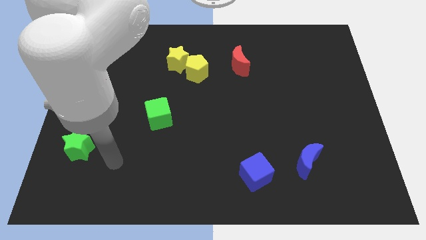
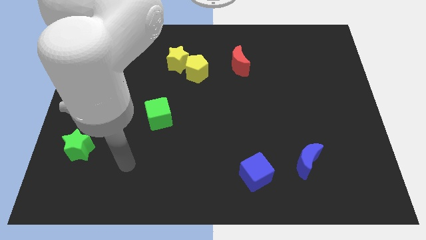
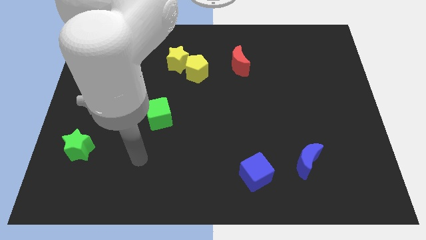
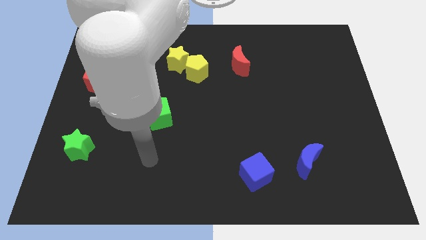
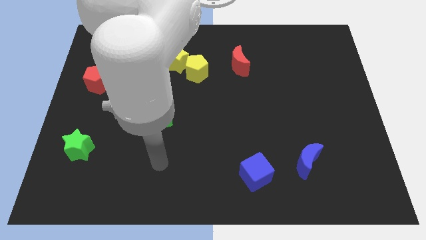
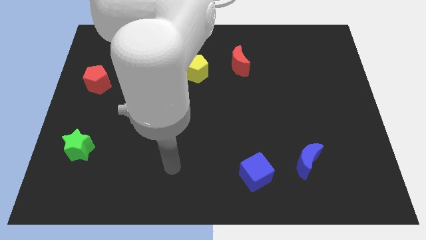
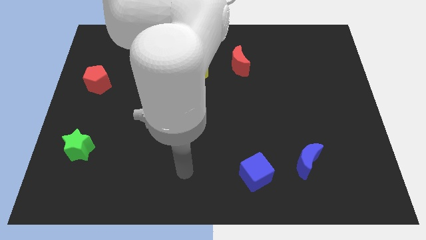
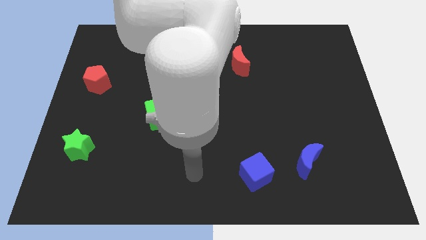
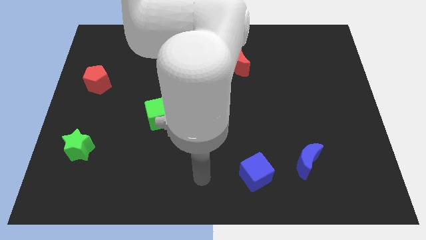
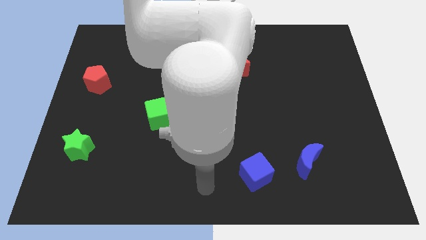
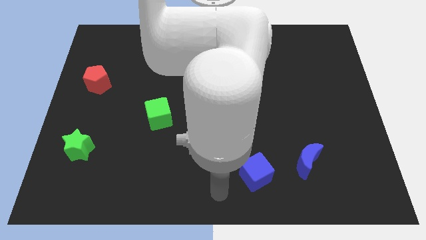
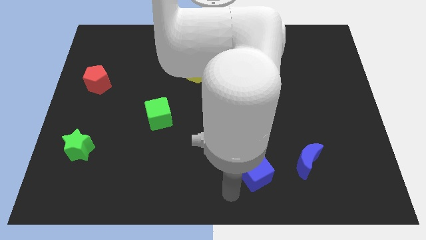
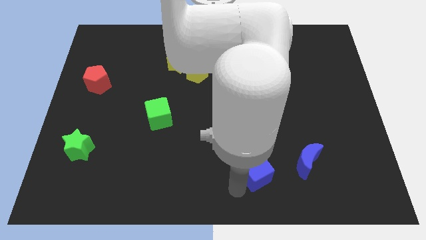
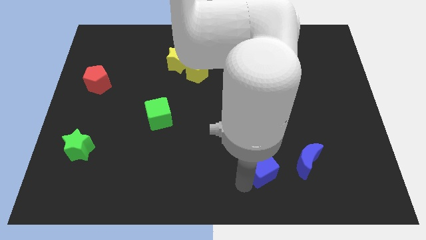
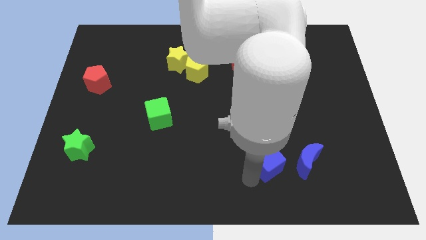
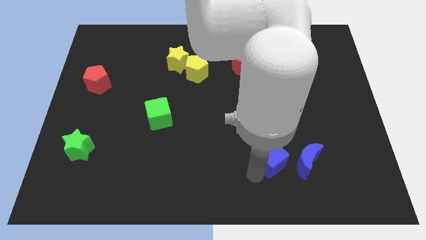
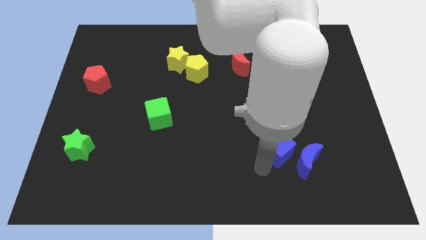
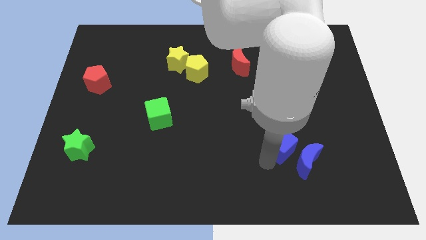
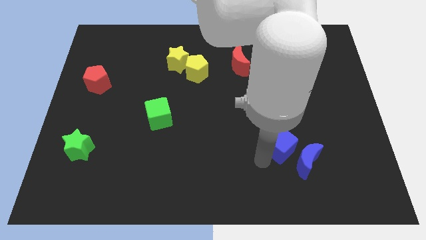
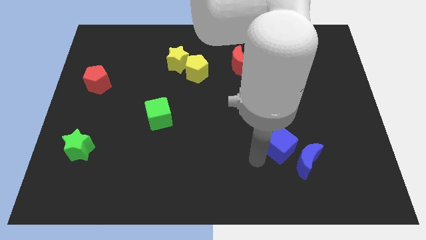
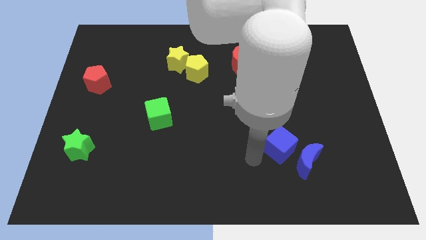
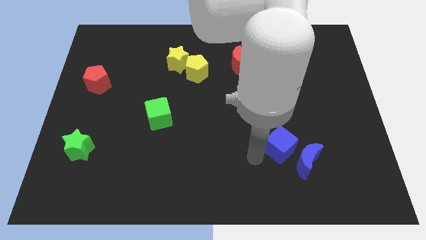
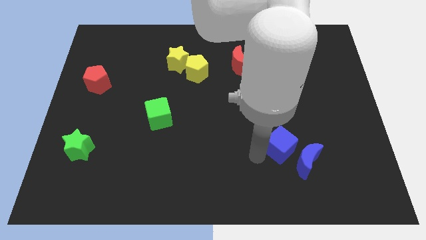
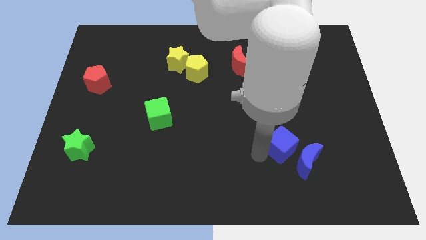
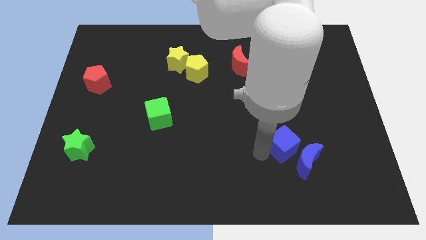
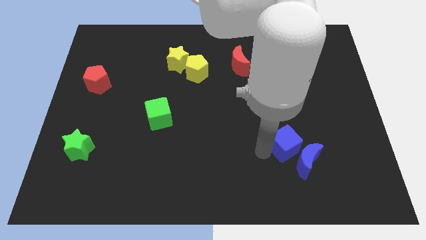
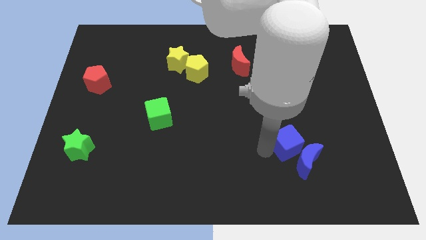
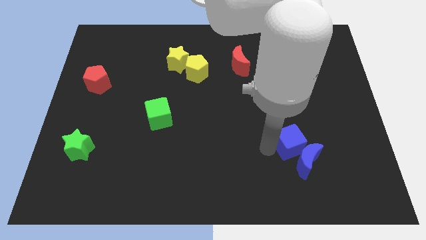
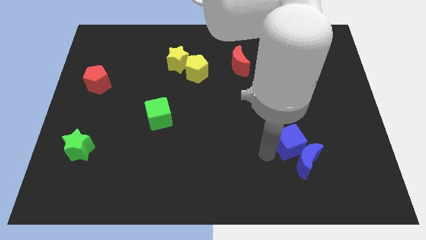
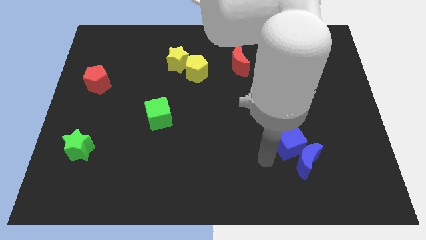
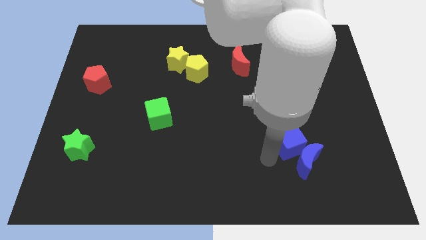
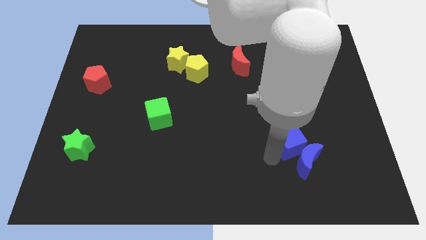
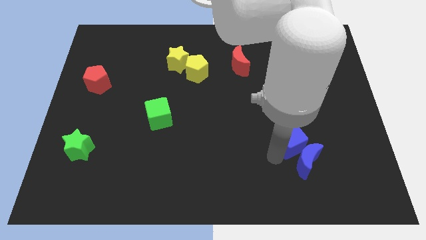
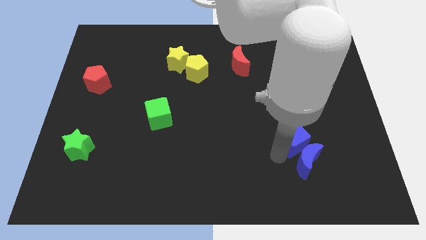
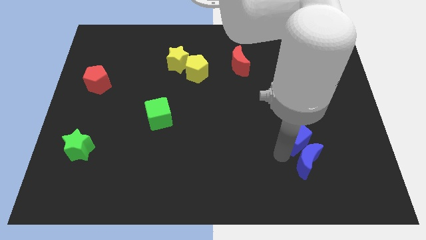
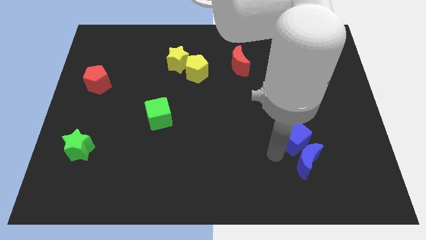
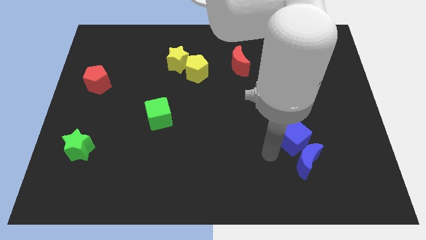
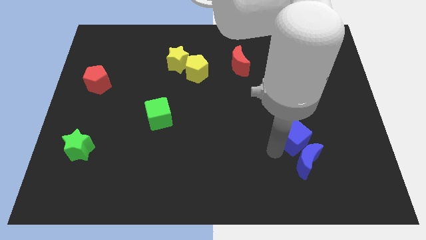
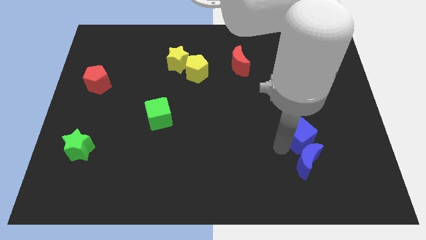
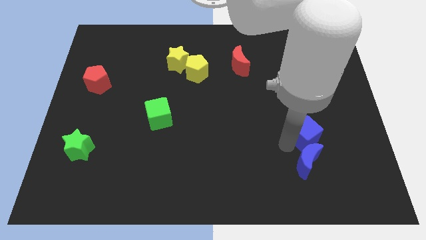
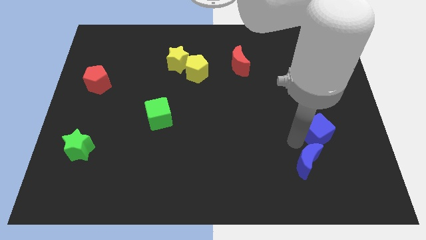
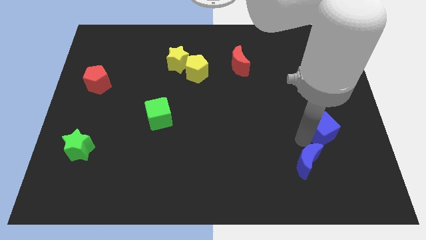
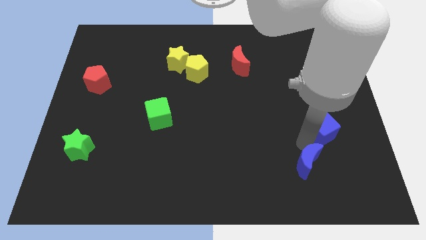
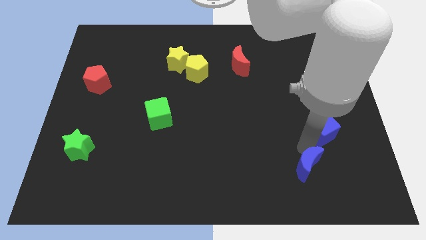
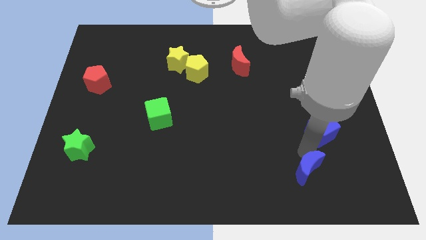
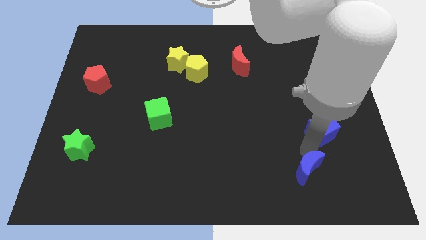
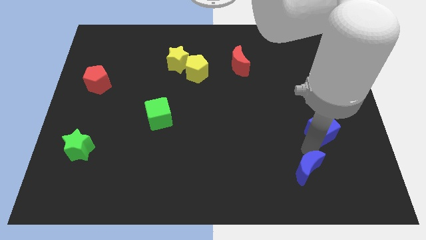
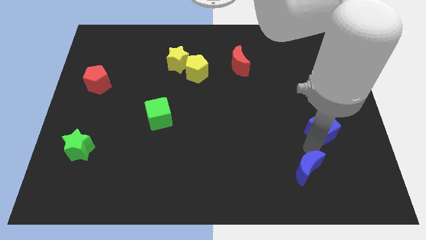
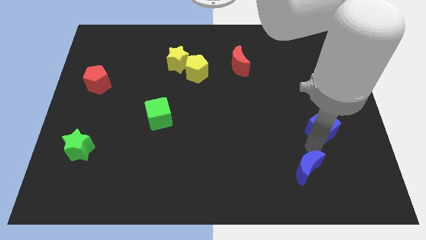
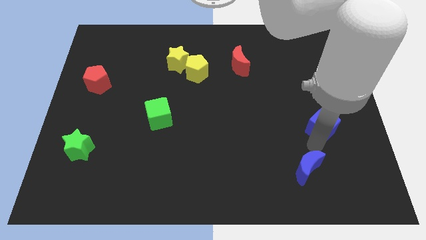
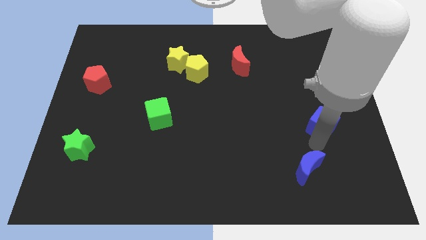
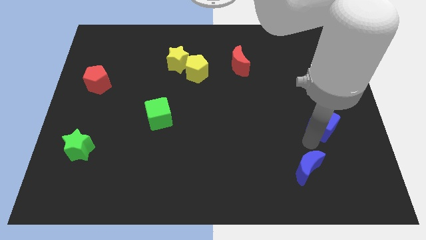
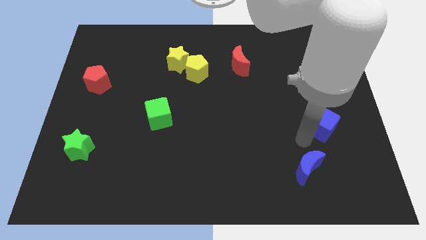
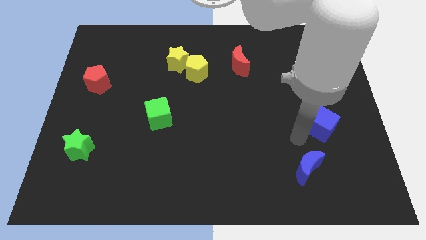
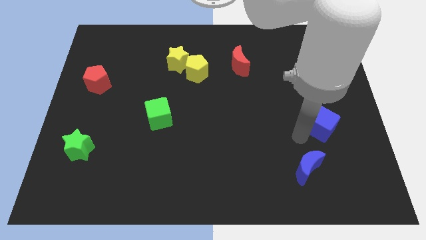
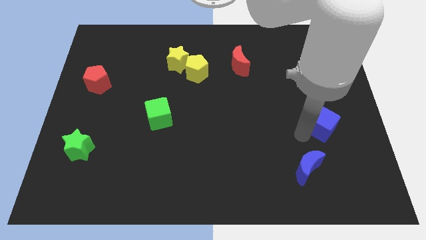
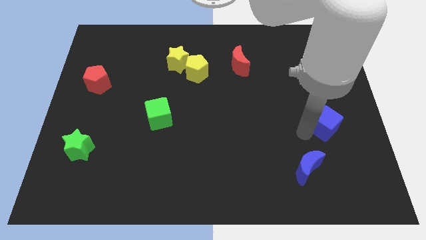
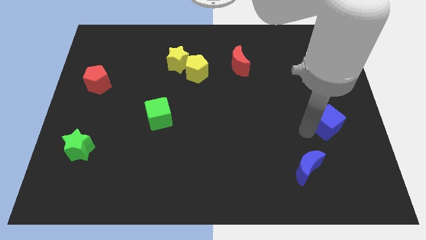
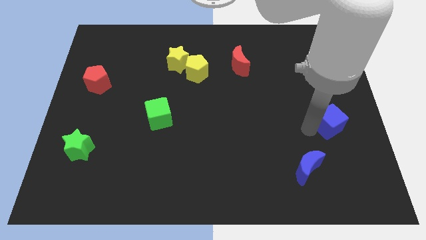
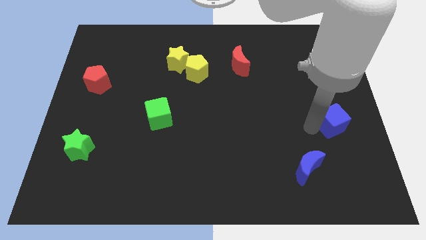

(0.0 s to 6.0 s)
slide the blue cube to the right side of the board

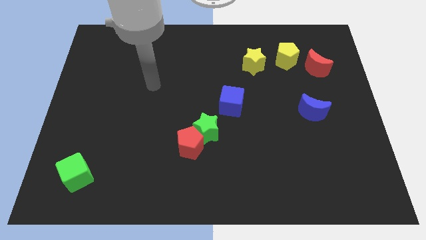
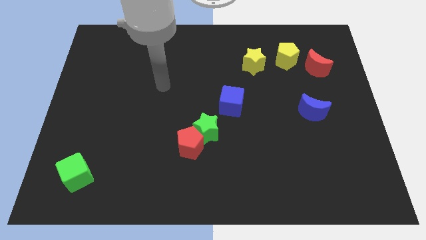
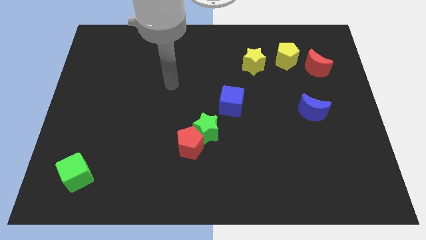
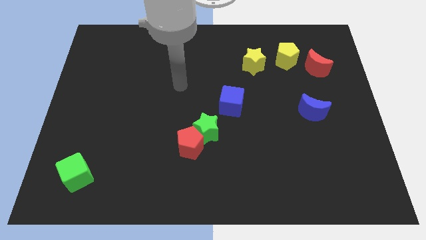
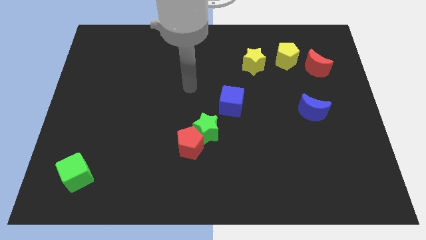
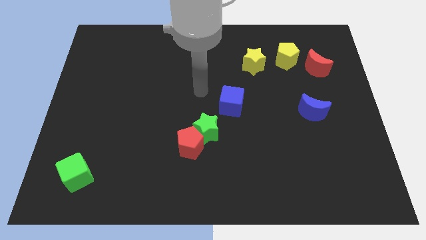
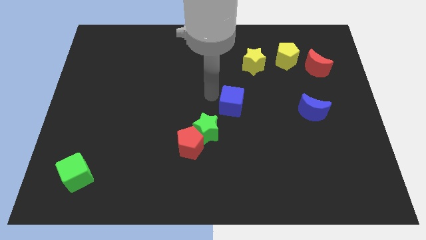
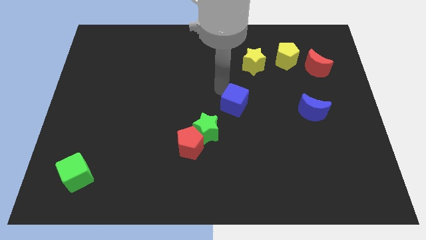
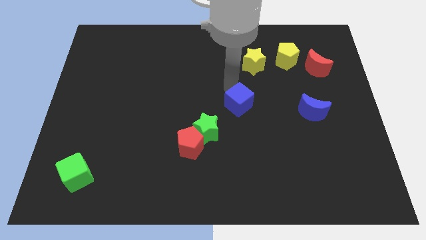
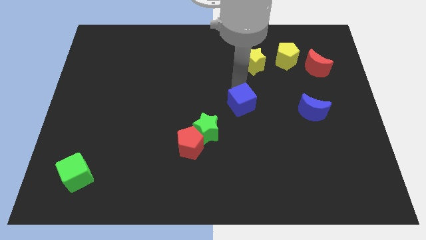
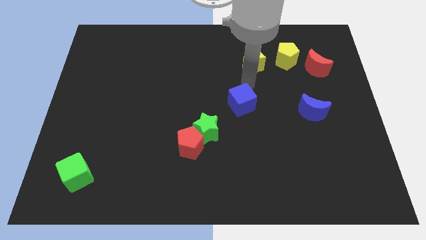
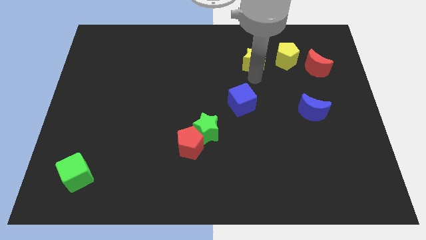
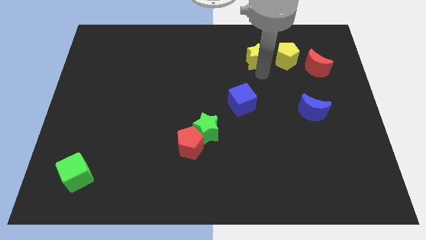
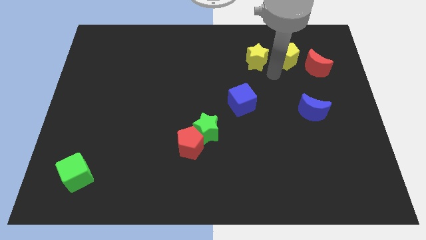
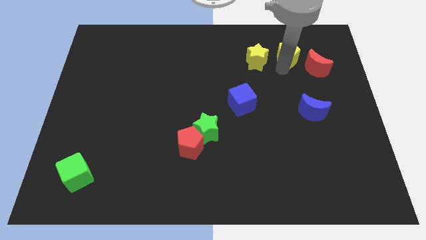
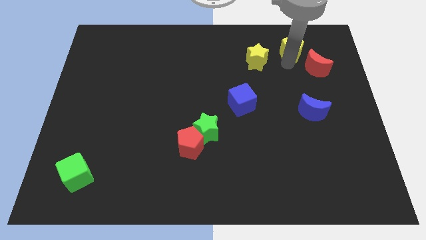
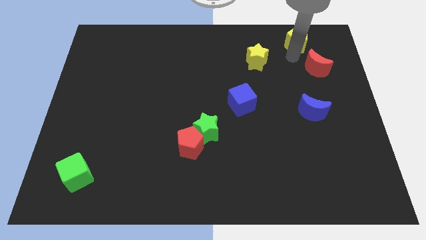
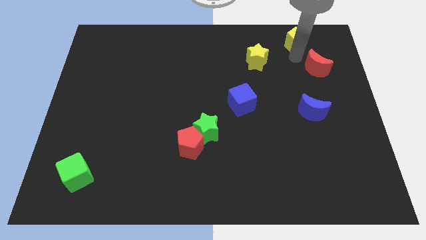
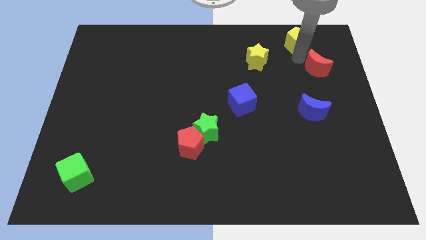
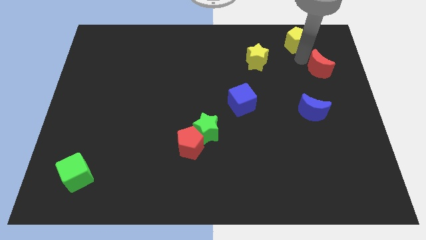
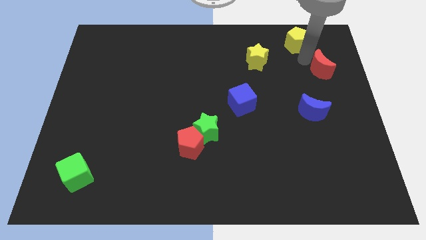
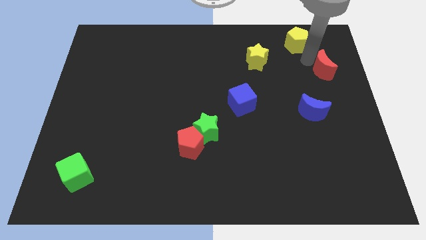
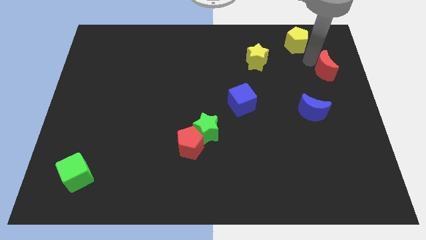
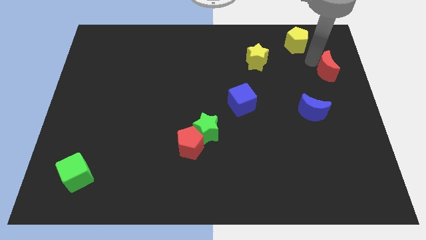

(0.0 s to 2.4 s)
put the red moon to the right side
